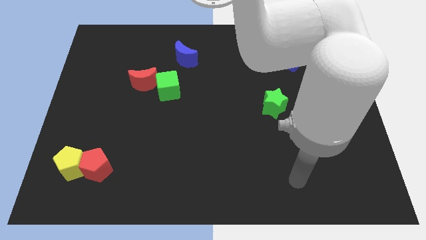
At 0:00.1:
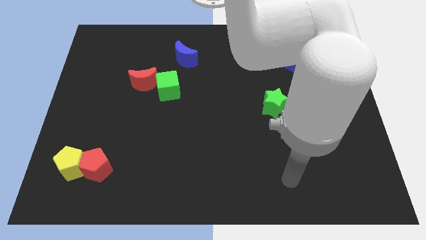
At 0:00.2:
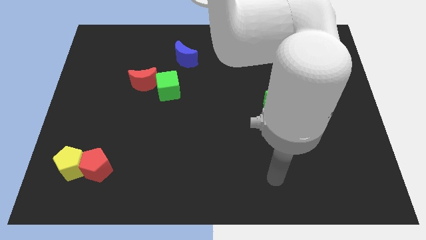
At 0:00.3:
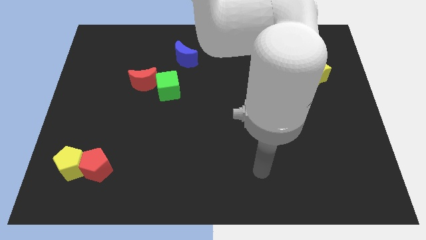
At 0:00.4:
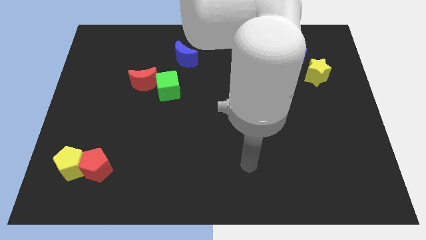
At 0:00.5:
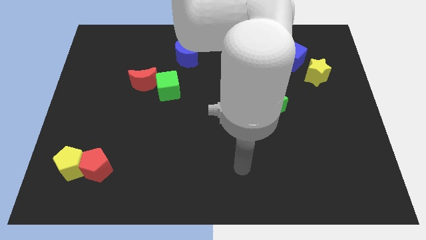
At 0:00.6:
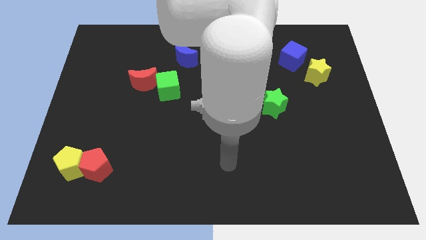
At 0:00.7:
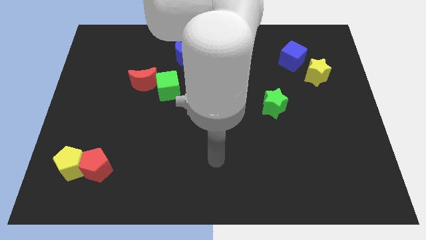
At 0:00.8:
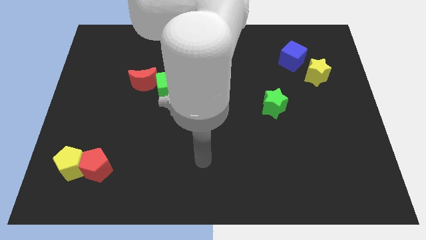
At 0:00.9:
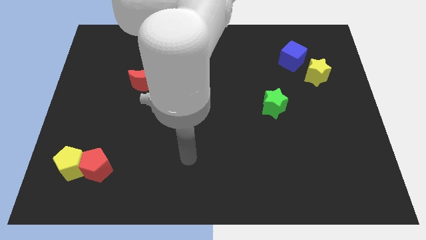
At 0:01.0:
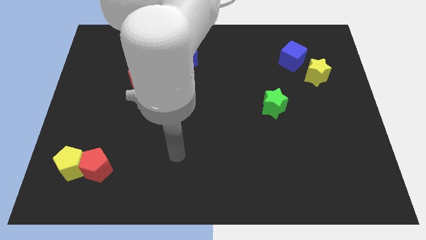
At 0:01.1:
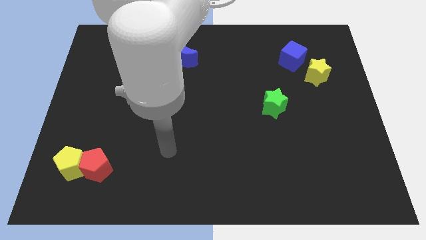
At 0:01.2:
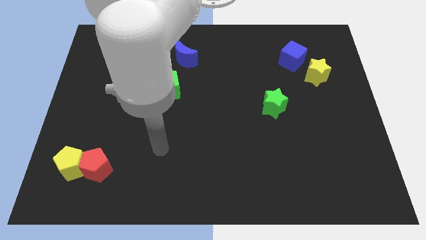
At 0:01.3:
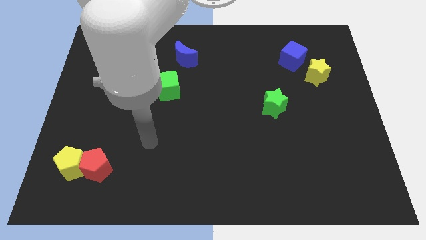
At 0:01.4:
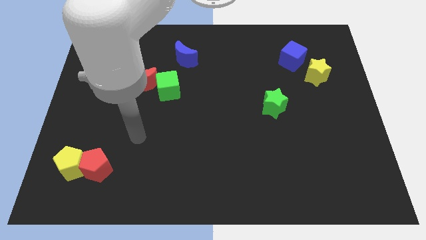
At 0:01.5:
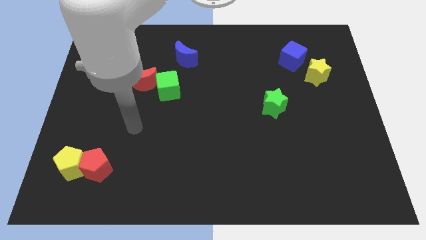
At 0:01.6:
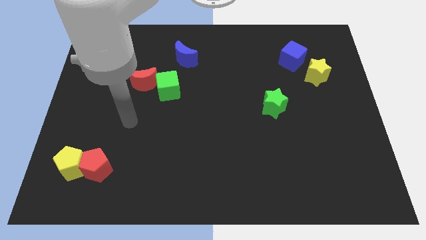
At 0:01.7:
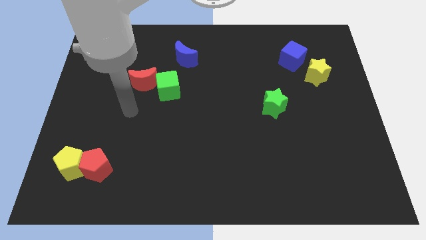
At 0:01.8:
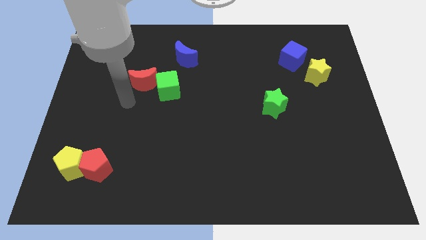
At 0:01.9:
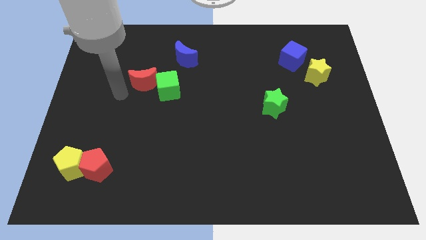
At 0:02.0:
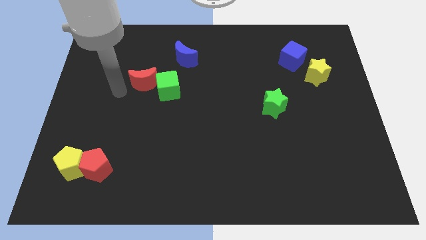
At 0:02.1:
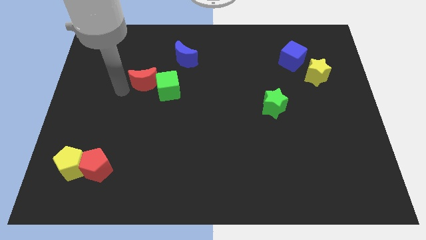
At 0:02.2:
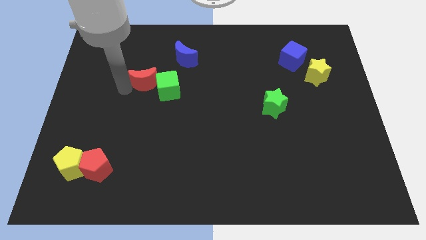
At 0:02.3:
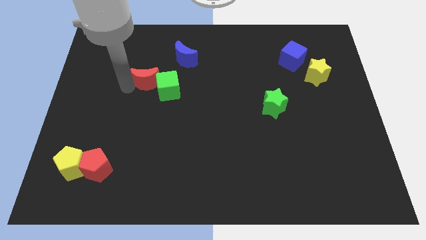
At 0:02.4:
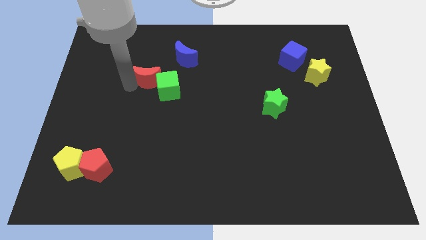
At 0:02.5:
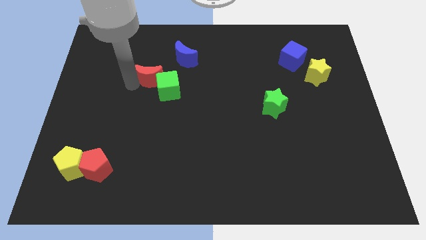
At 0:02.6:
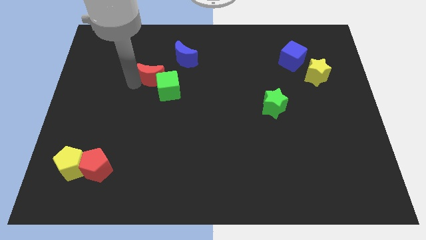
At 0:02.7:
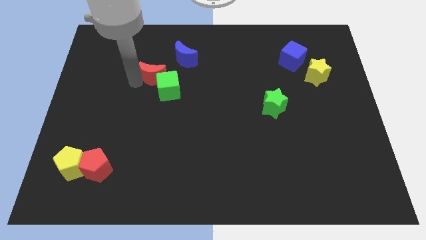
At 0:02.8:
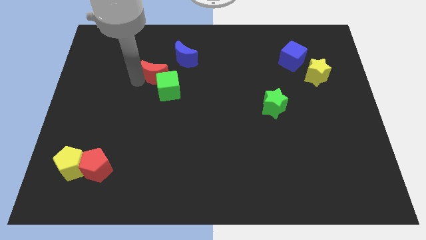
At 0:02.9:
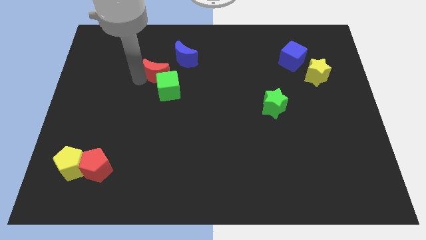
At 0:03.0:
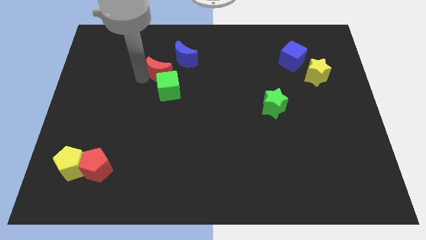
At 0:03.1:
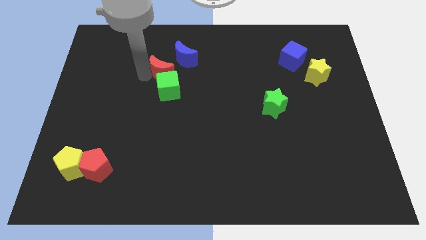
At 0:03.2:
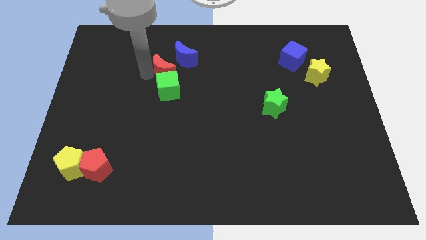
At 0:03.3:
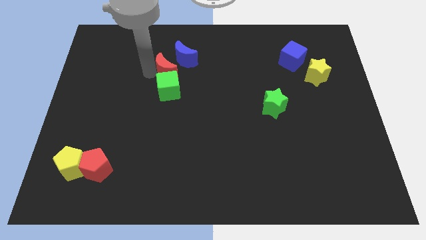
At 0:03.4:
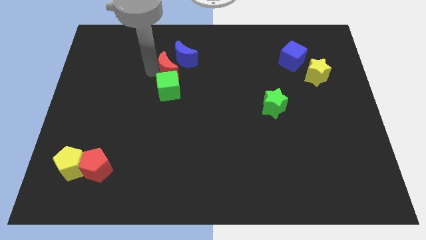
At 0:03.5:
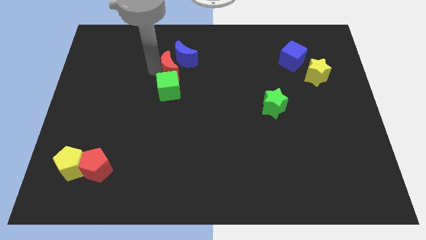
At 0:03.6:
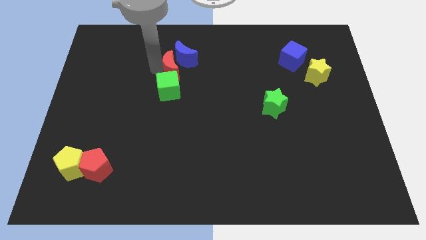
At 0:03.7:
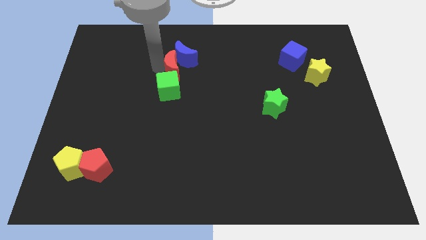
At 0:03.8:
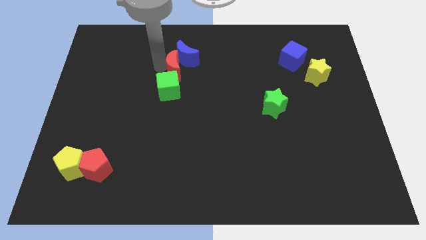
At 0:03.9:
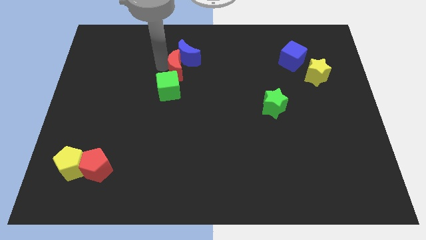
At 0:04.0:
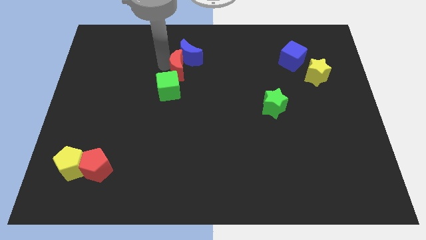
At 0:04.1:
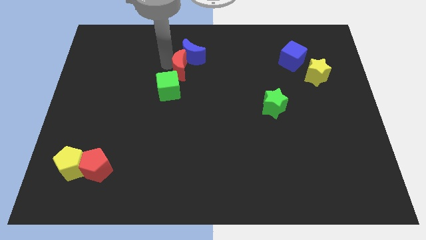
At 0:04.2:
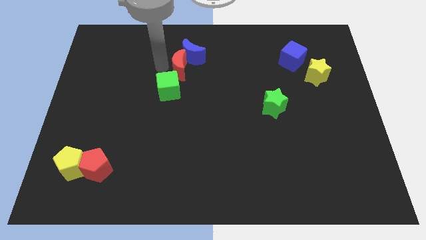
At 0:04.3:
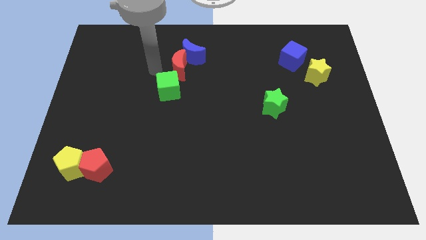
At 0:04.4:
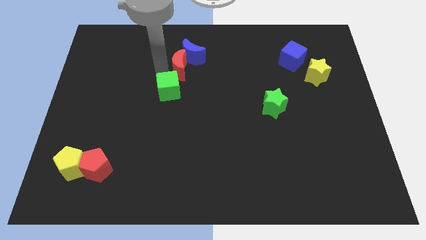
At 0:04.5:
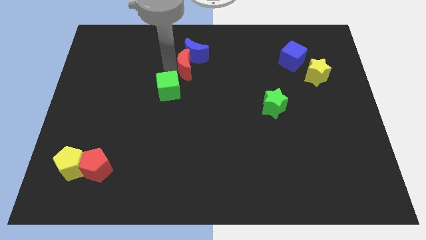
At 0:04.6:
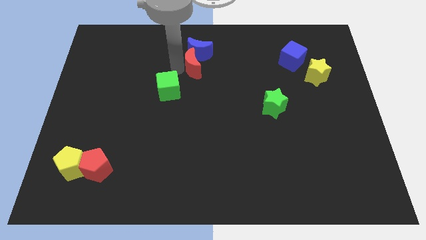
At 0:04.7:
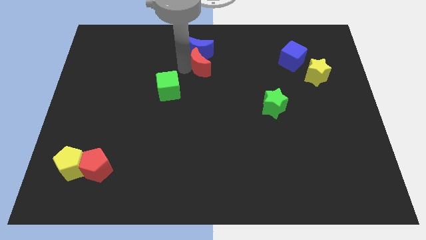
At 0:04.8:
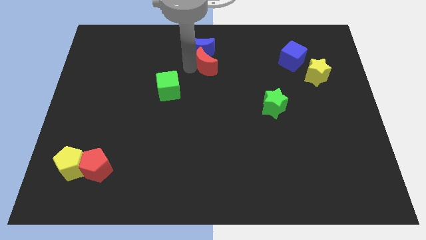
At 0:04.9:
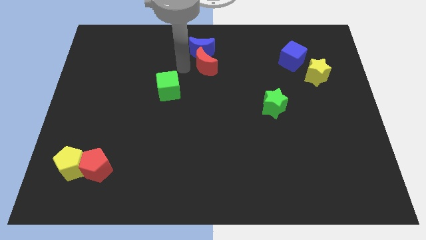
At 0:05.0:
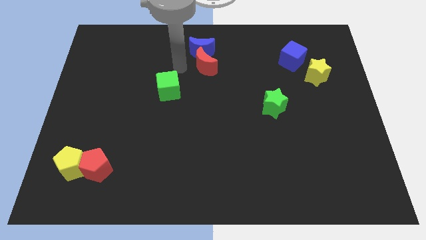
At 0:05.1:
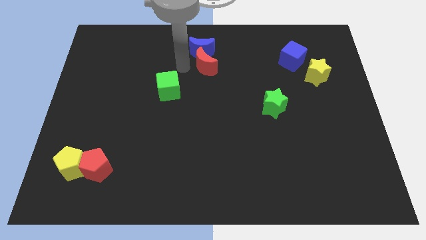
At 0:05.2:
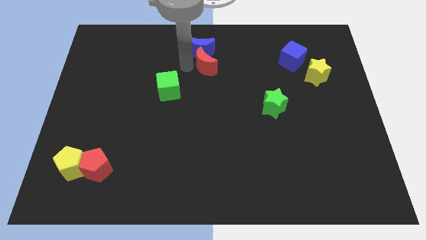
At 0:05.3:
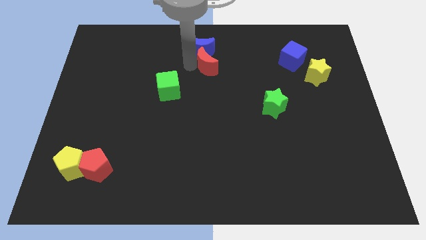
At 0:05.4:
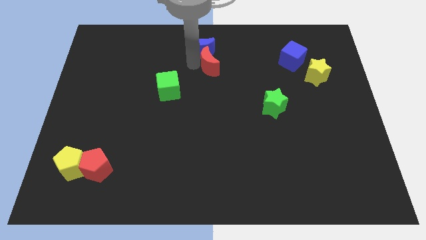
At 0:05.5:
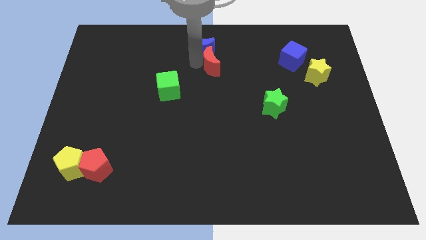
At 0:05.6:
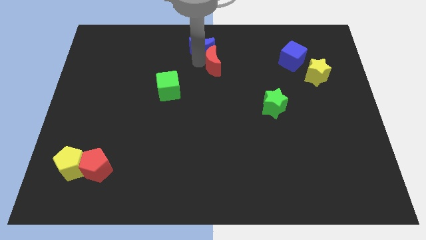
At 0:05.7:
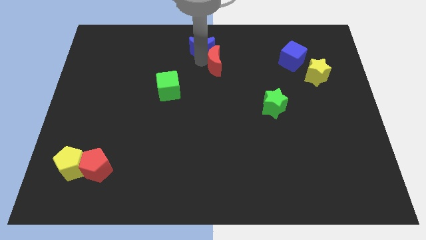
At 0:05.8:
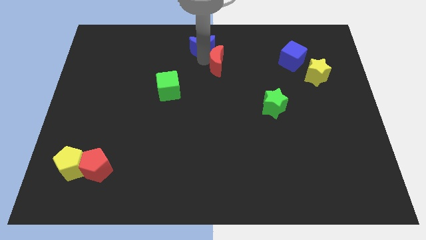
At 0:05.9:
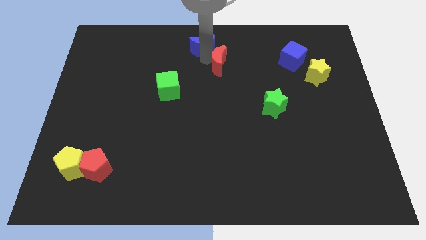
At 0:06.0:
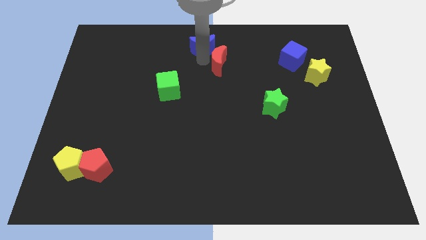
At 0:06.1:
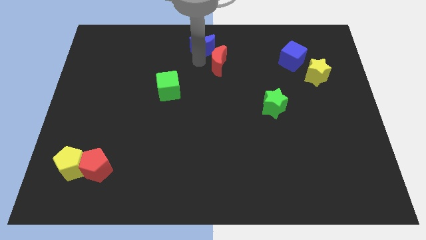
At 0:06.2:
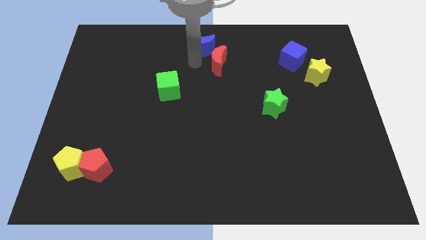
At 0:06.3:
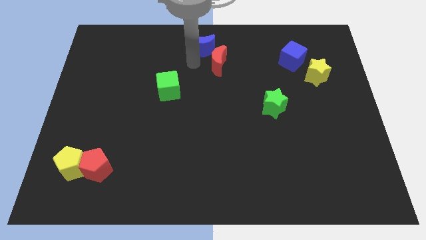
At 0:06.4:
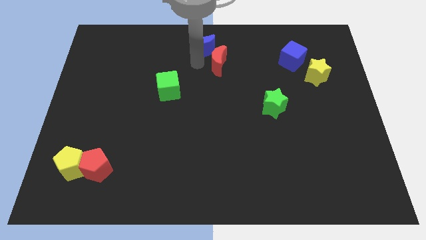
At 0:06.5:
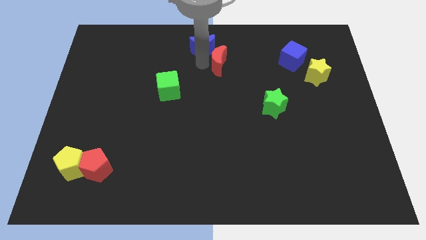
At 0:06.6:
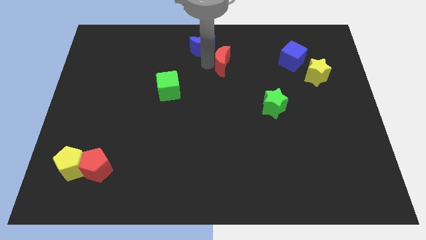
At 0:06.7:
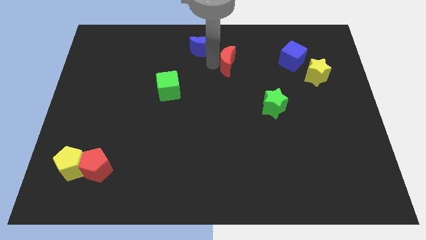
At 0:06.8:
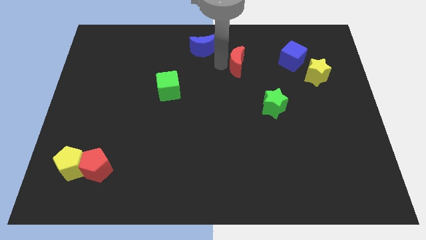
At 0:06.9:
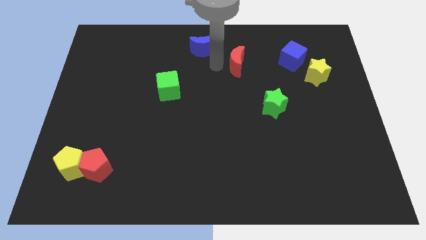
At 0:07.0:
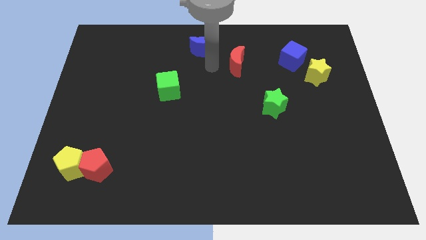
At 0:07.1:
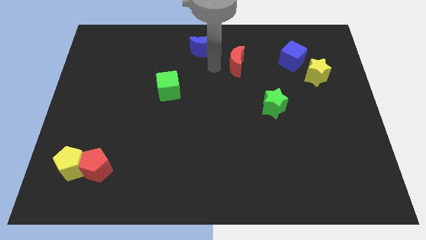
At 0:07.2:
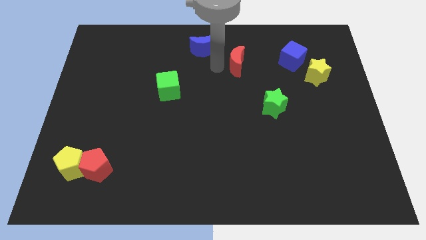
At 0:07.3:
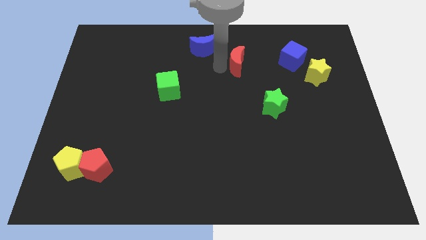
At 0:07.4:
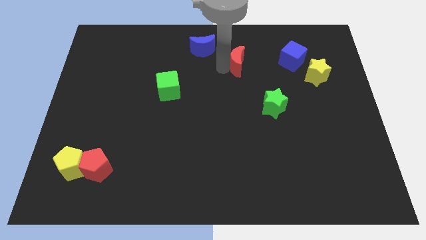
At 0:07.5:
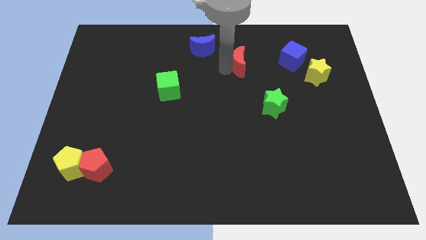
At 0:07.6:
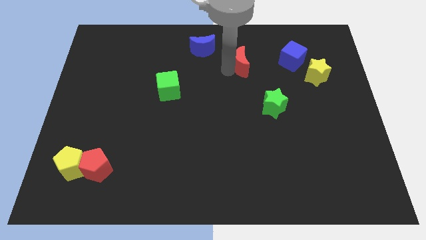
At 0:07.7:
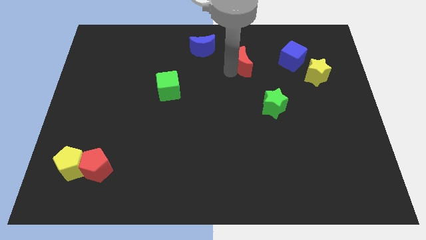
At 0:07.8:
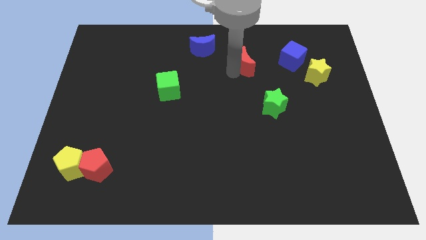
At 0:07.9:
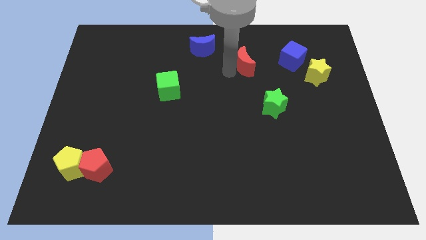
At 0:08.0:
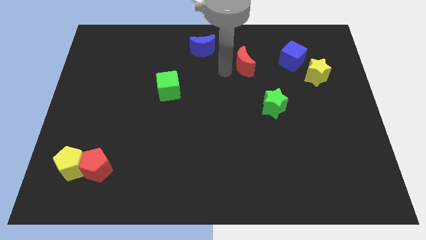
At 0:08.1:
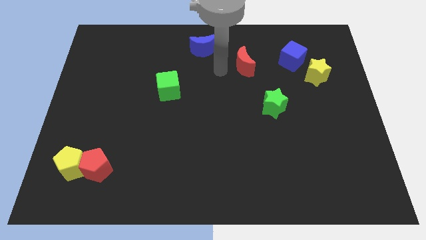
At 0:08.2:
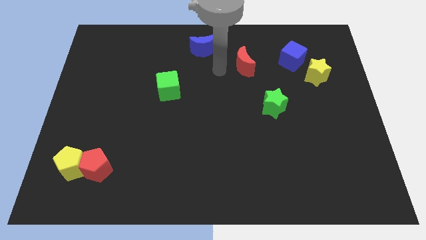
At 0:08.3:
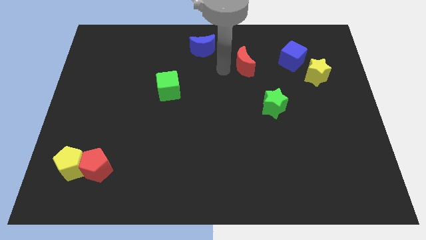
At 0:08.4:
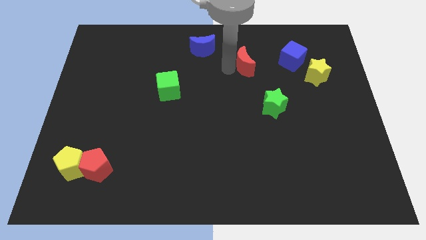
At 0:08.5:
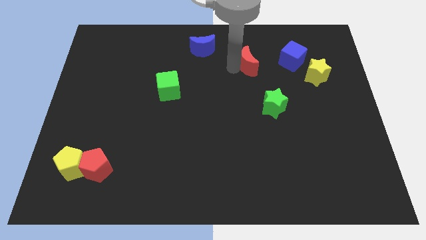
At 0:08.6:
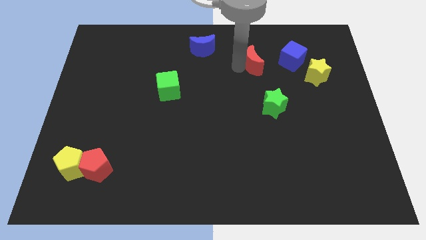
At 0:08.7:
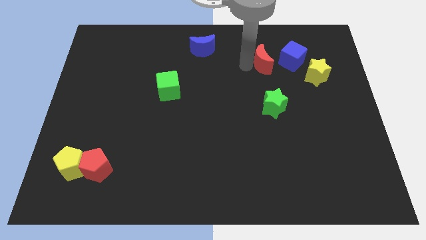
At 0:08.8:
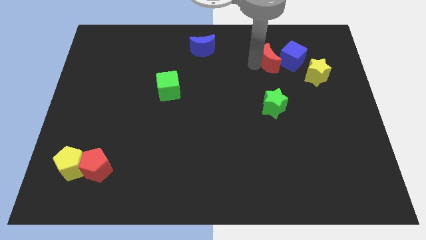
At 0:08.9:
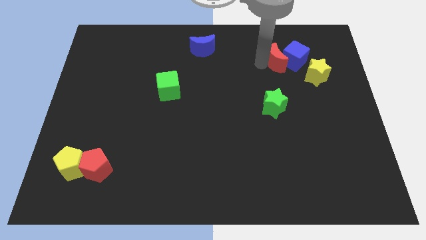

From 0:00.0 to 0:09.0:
put the red moon to the blue cube
